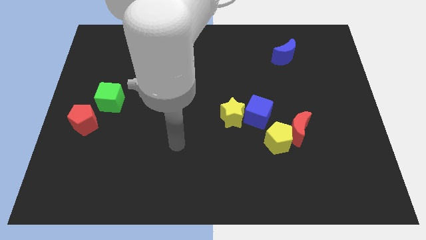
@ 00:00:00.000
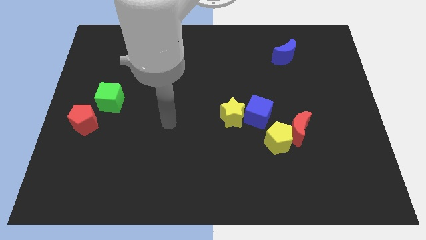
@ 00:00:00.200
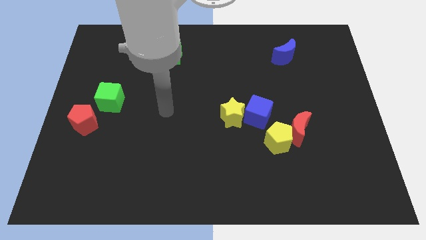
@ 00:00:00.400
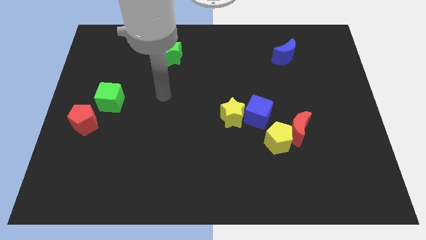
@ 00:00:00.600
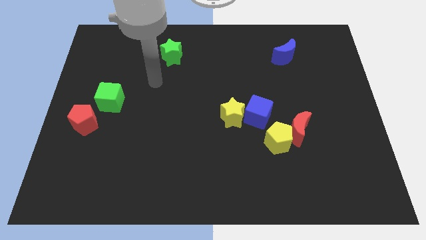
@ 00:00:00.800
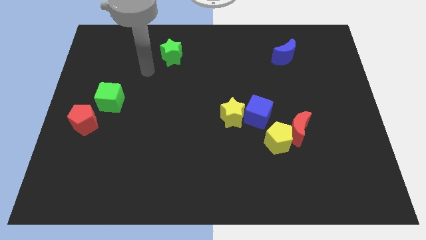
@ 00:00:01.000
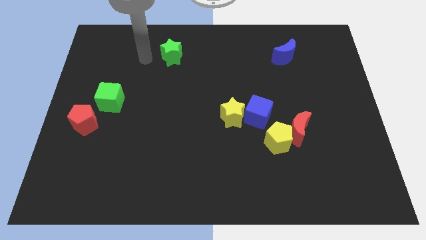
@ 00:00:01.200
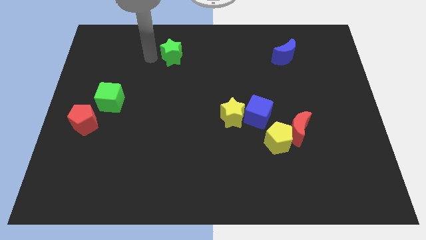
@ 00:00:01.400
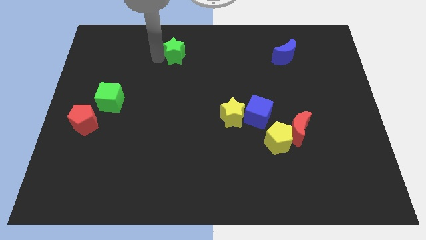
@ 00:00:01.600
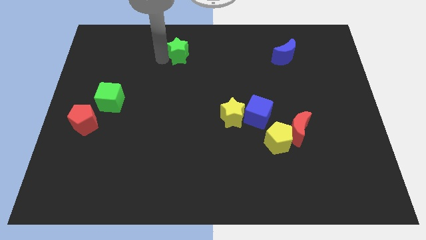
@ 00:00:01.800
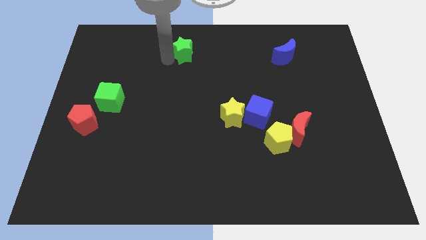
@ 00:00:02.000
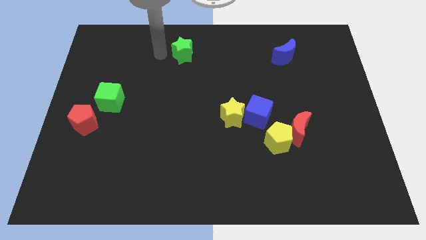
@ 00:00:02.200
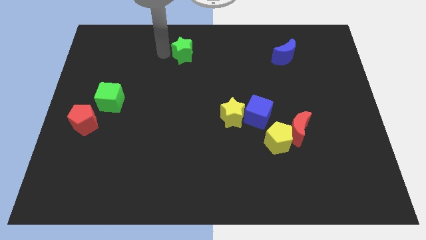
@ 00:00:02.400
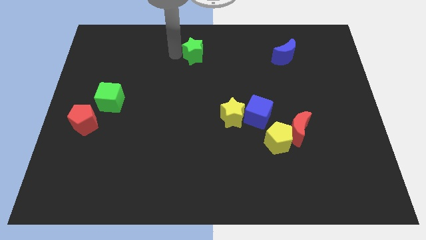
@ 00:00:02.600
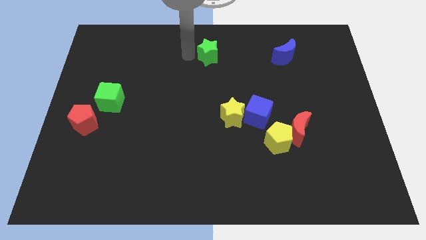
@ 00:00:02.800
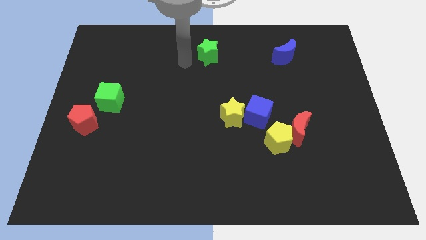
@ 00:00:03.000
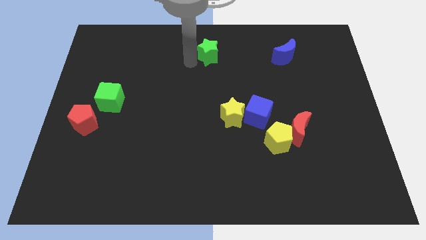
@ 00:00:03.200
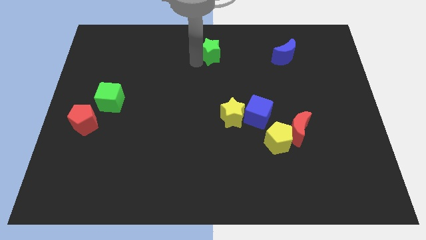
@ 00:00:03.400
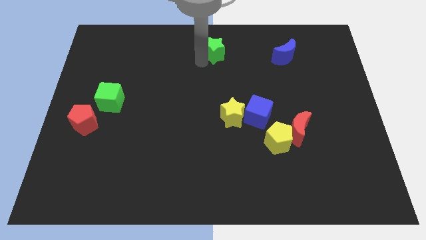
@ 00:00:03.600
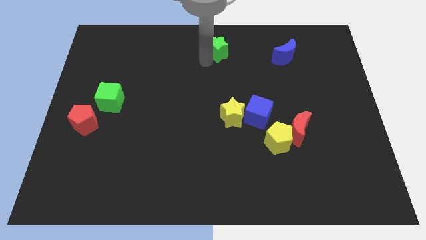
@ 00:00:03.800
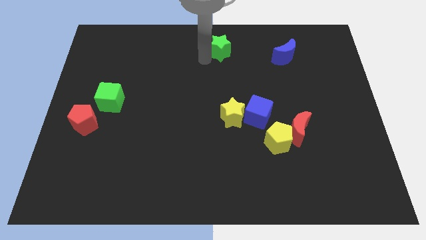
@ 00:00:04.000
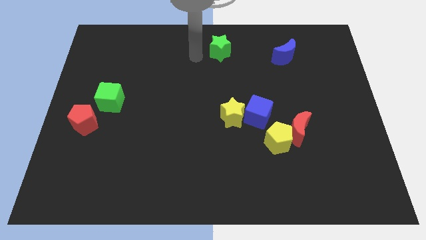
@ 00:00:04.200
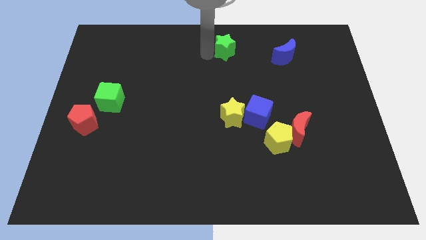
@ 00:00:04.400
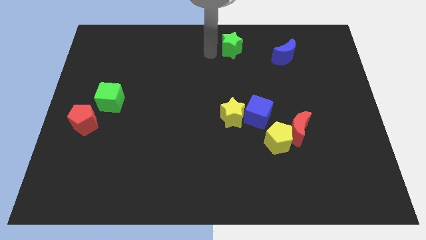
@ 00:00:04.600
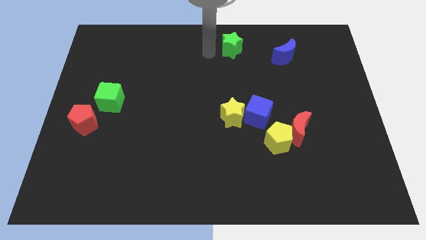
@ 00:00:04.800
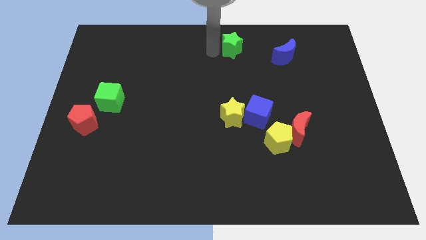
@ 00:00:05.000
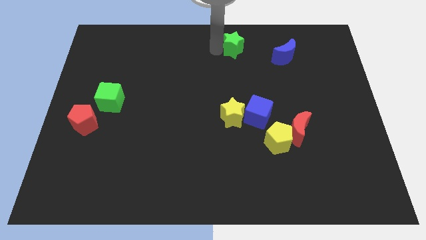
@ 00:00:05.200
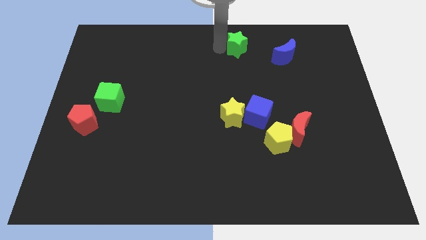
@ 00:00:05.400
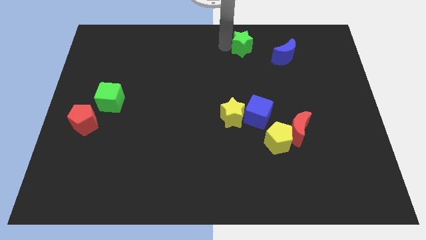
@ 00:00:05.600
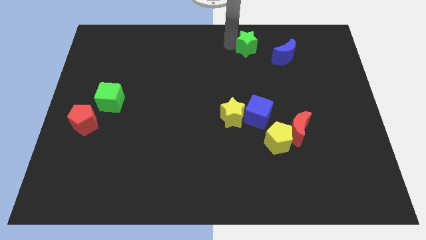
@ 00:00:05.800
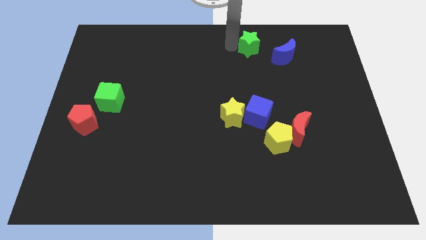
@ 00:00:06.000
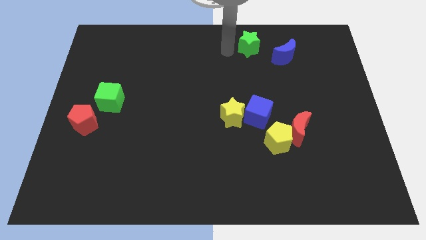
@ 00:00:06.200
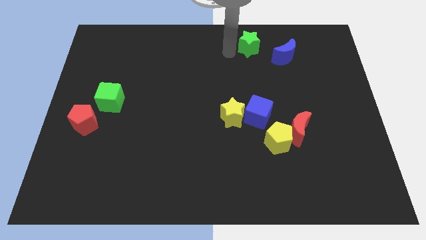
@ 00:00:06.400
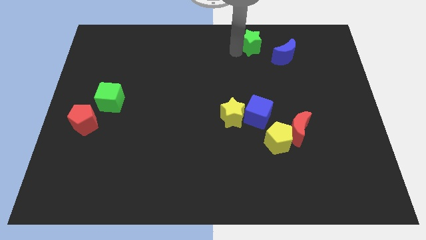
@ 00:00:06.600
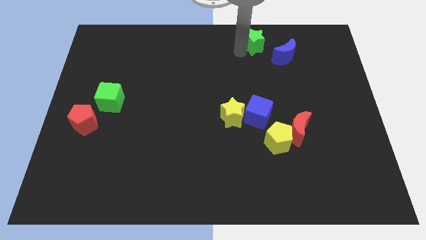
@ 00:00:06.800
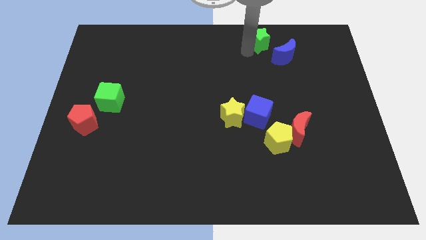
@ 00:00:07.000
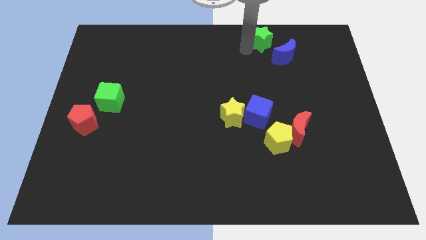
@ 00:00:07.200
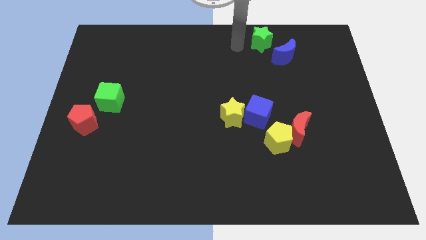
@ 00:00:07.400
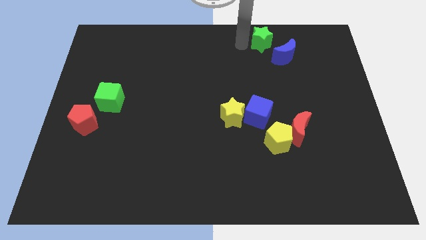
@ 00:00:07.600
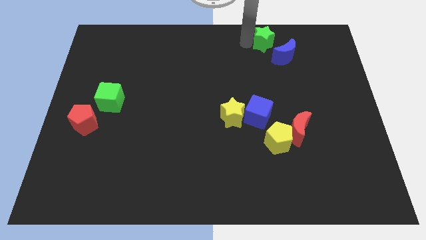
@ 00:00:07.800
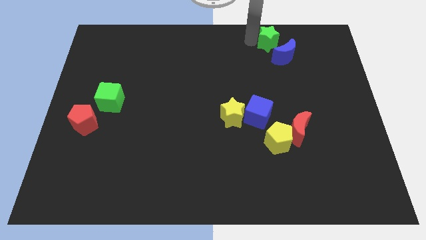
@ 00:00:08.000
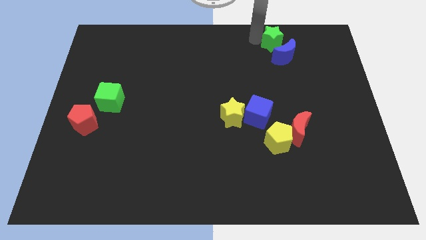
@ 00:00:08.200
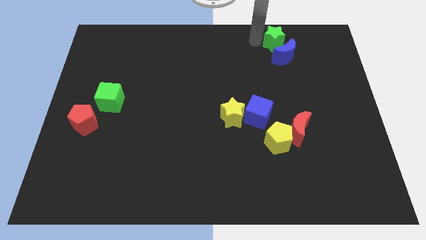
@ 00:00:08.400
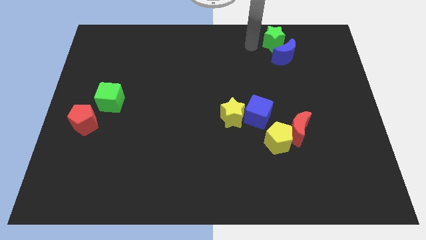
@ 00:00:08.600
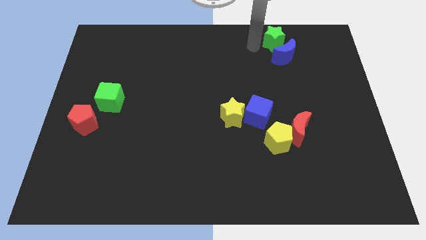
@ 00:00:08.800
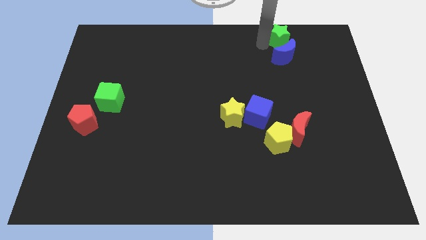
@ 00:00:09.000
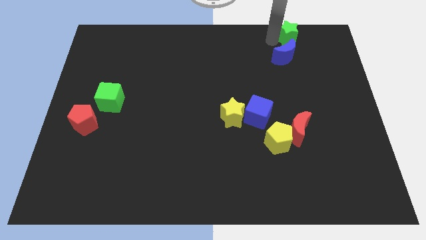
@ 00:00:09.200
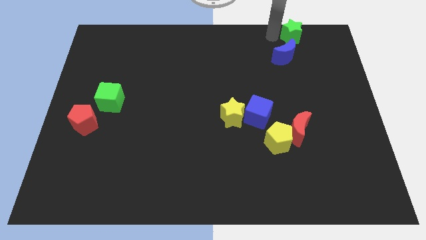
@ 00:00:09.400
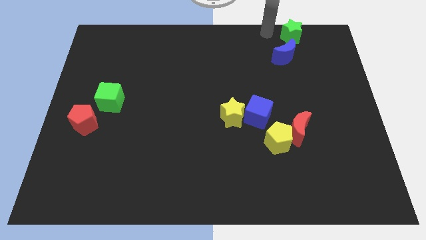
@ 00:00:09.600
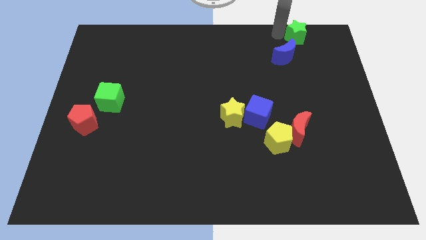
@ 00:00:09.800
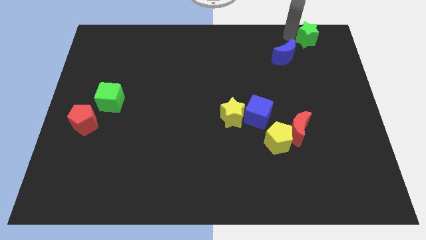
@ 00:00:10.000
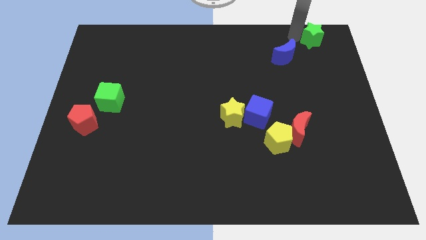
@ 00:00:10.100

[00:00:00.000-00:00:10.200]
slide the green star to the top right of the board

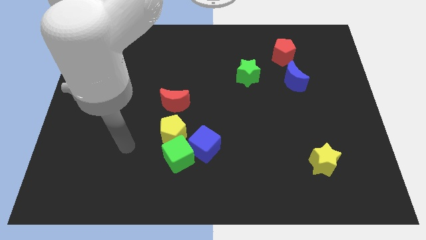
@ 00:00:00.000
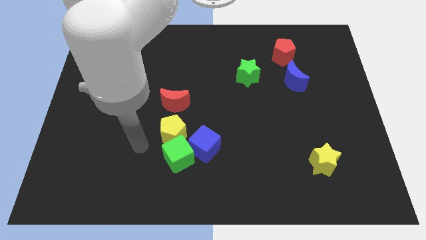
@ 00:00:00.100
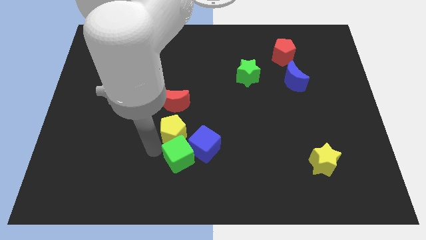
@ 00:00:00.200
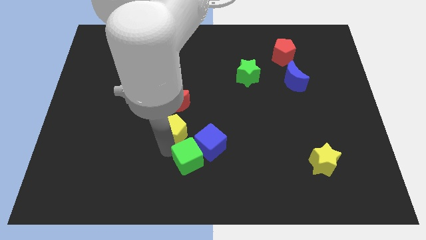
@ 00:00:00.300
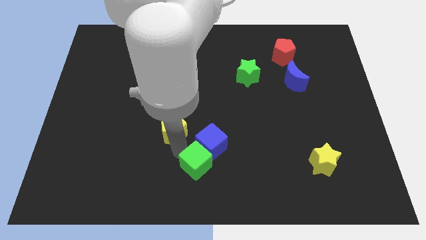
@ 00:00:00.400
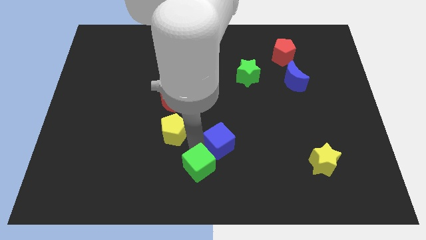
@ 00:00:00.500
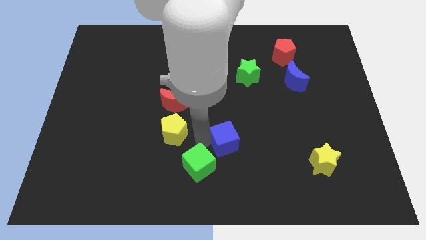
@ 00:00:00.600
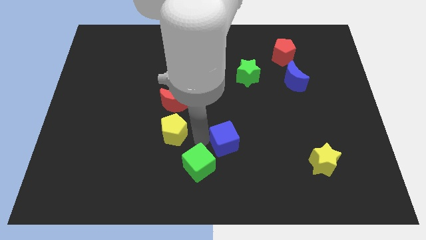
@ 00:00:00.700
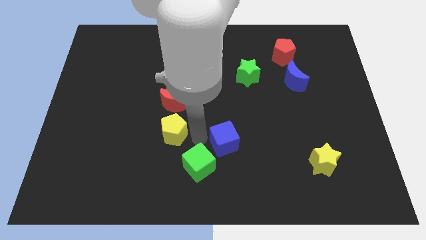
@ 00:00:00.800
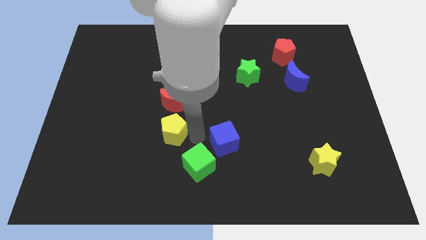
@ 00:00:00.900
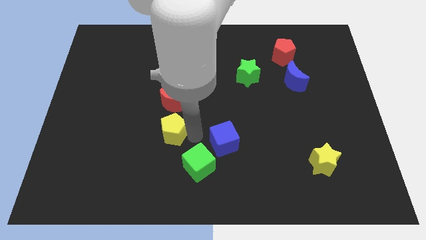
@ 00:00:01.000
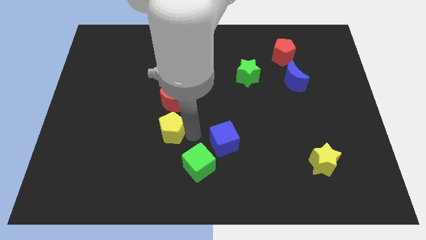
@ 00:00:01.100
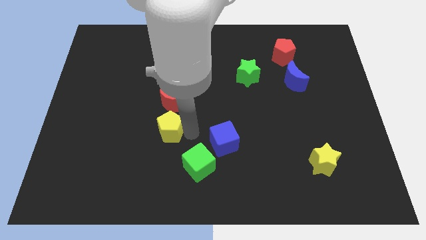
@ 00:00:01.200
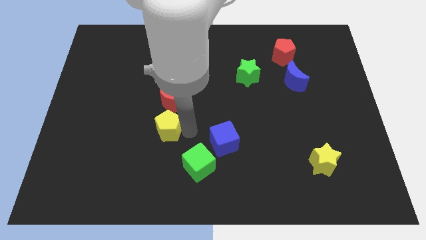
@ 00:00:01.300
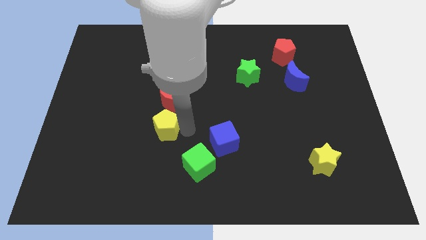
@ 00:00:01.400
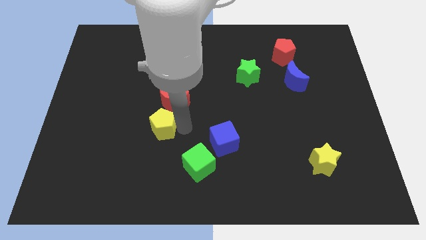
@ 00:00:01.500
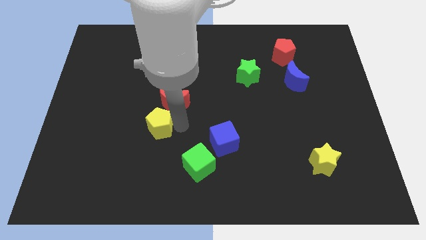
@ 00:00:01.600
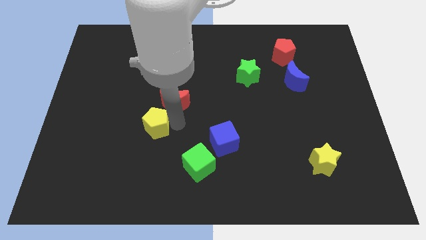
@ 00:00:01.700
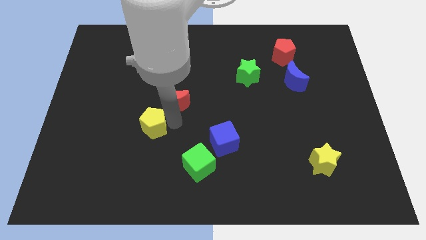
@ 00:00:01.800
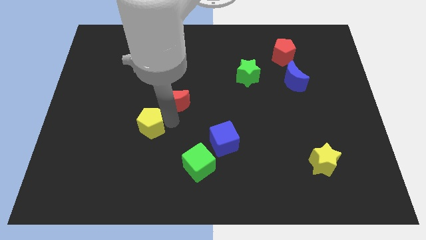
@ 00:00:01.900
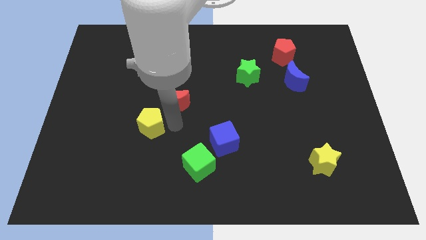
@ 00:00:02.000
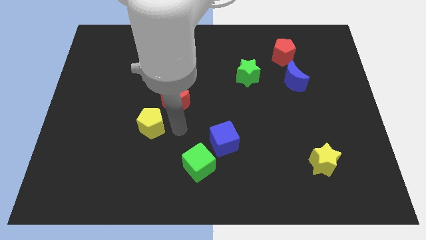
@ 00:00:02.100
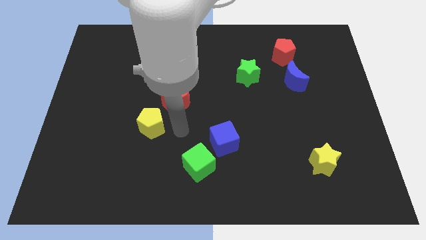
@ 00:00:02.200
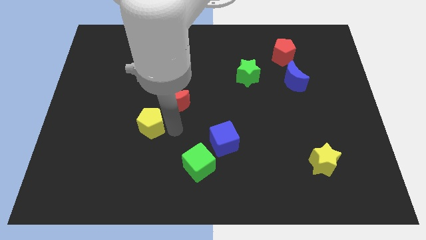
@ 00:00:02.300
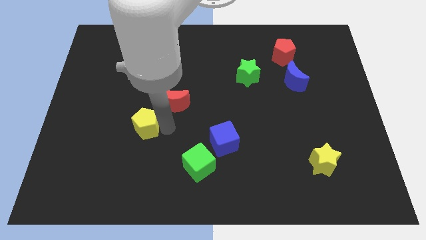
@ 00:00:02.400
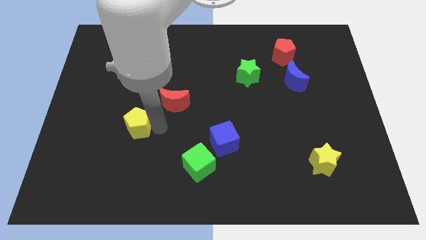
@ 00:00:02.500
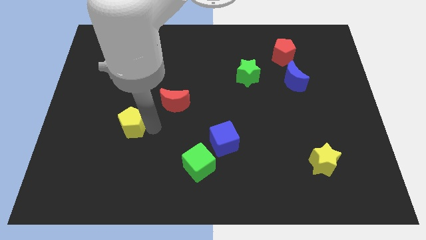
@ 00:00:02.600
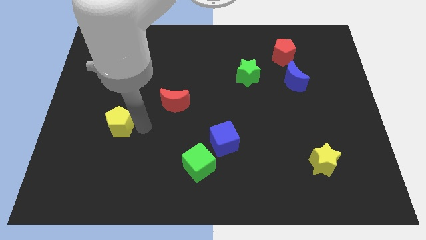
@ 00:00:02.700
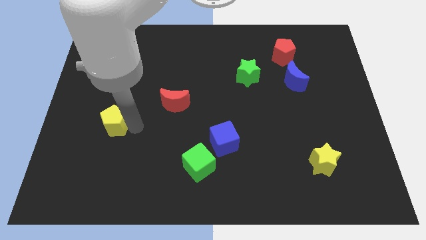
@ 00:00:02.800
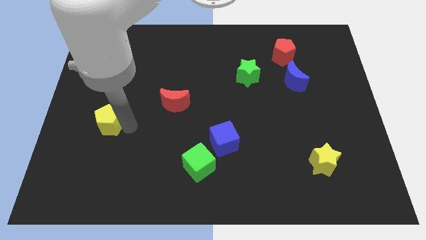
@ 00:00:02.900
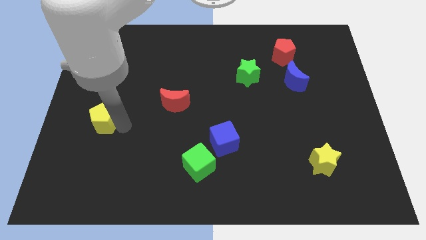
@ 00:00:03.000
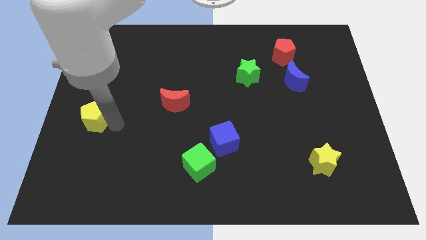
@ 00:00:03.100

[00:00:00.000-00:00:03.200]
slide the yellow pentagon to the center left
